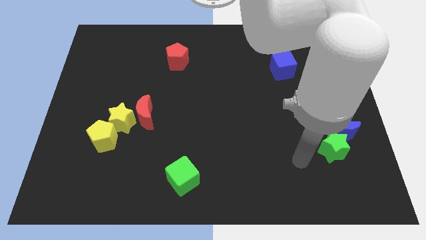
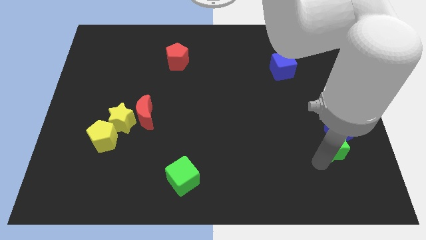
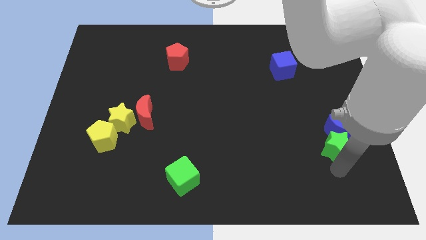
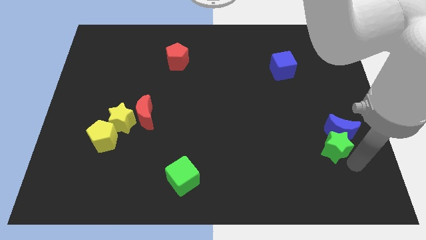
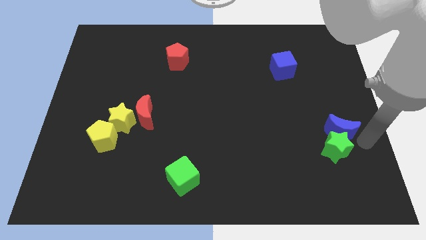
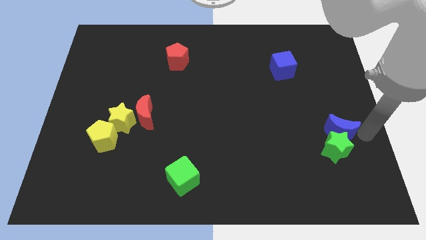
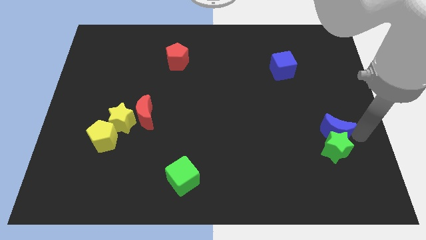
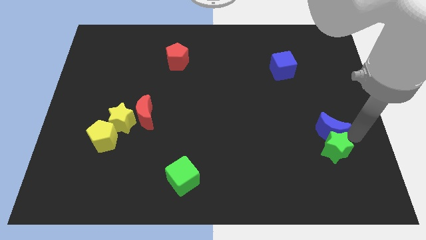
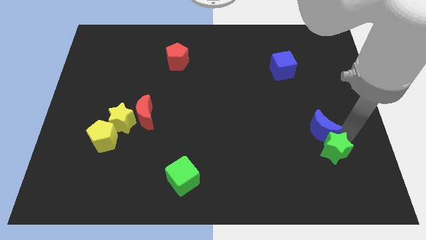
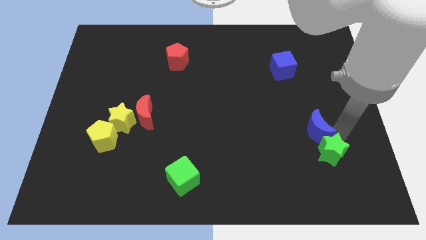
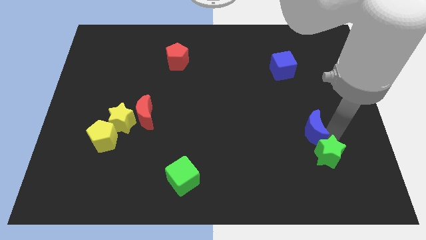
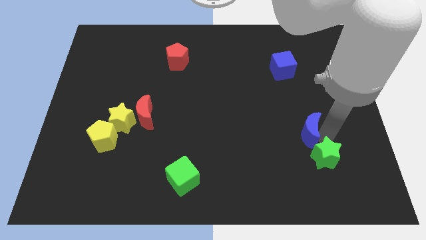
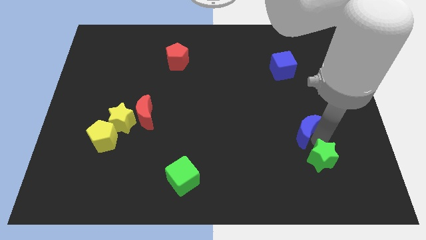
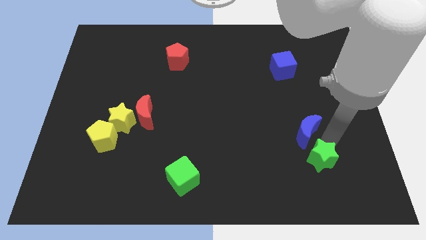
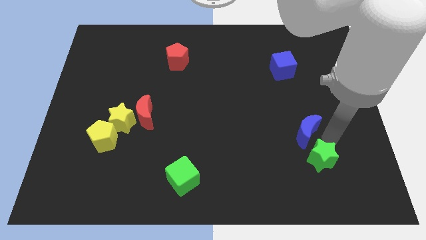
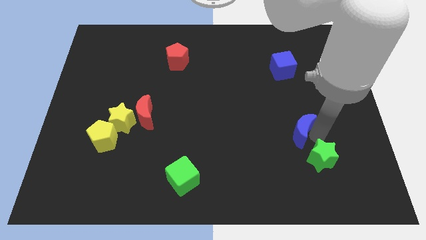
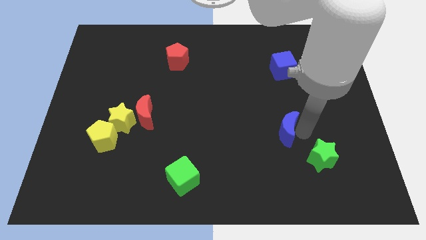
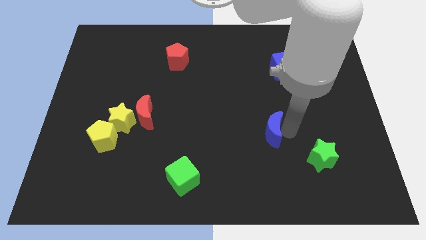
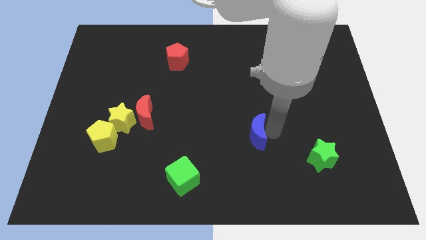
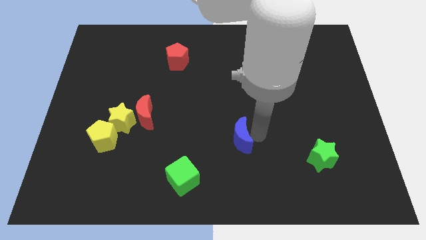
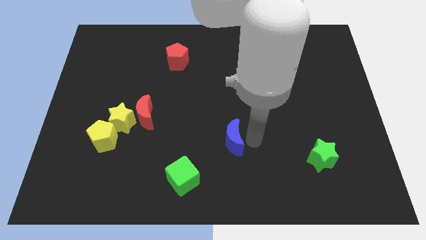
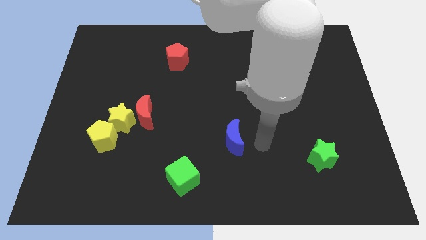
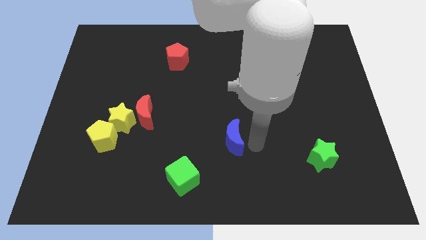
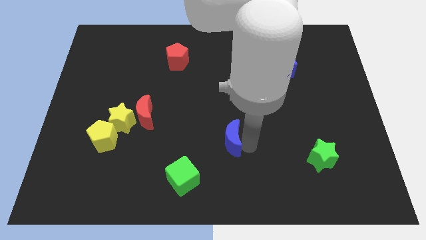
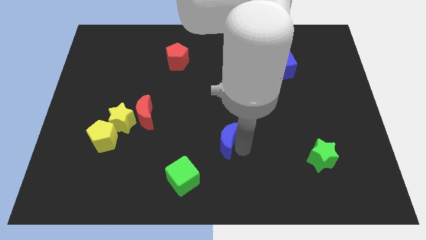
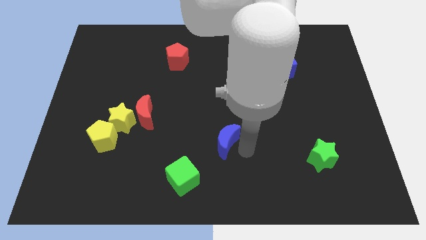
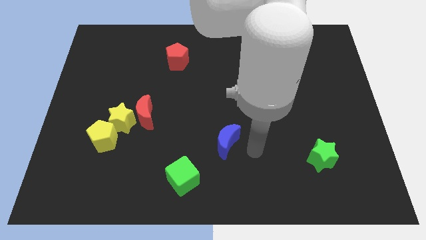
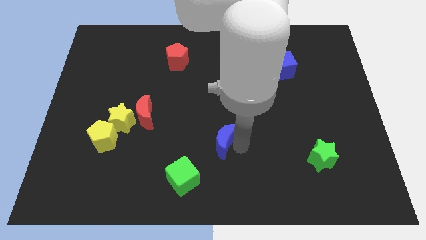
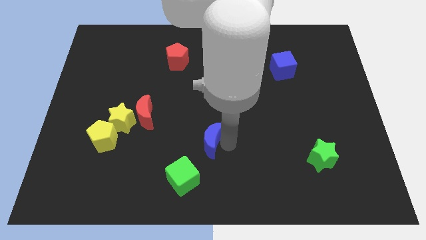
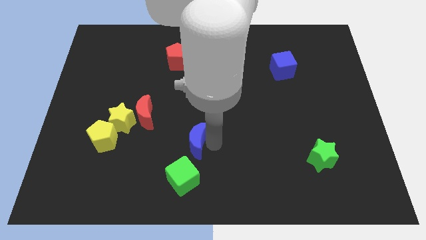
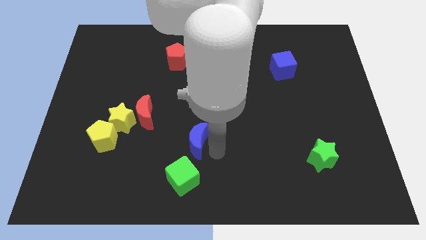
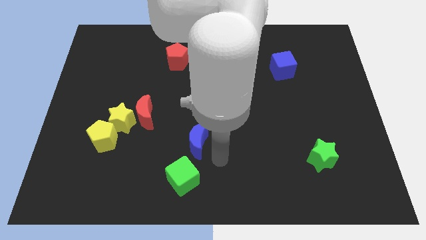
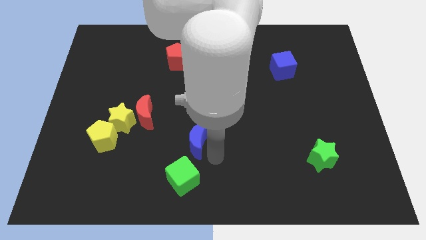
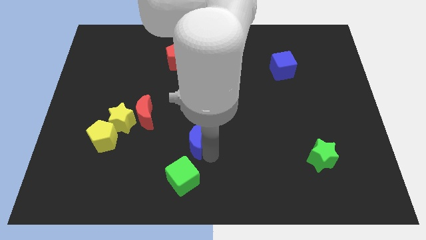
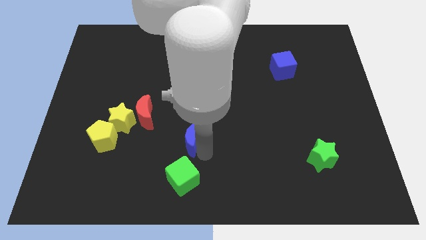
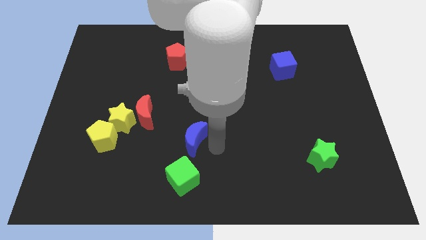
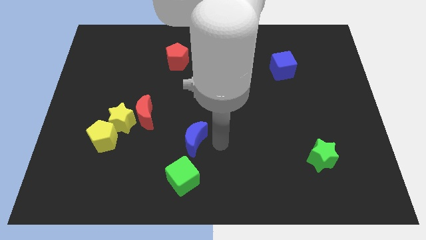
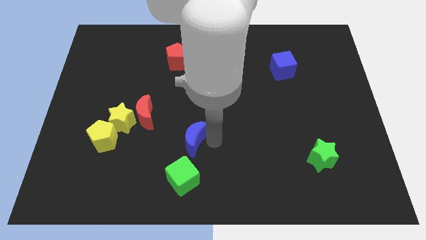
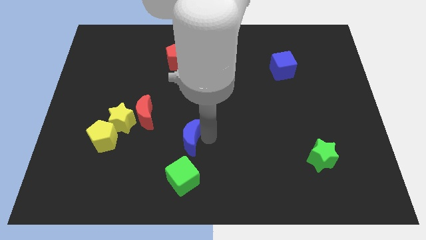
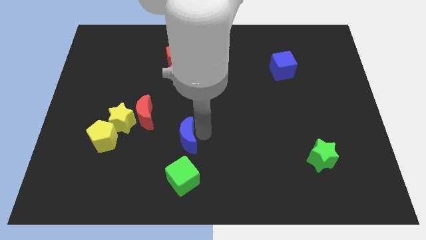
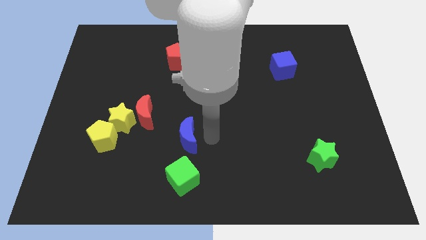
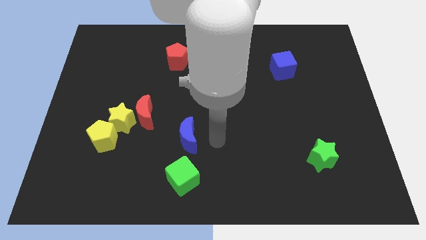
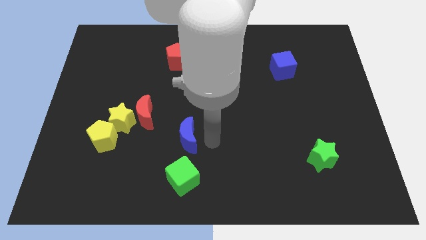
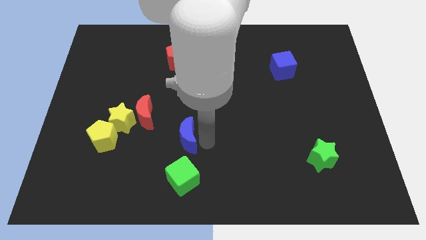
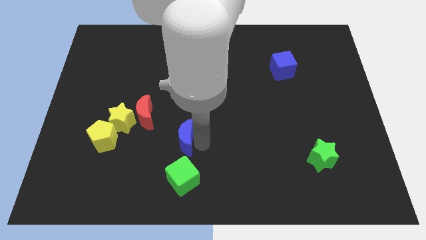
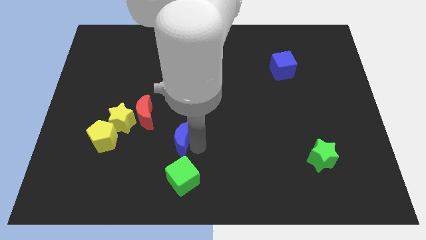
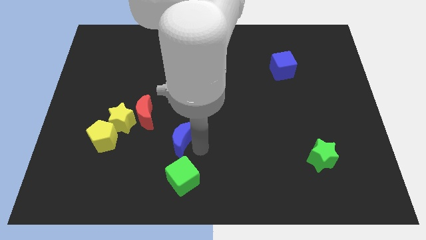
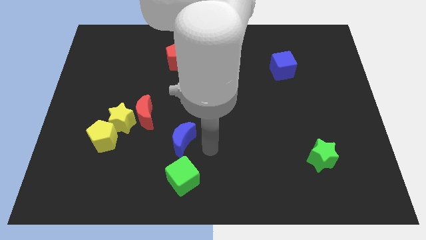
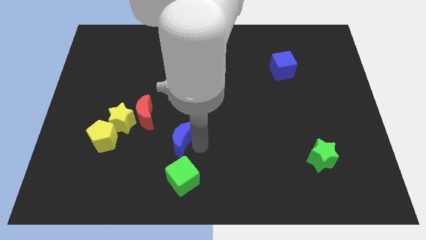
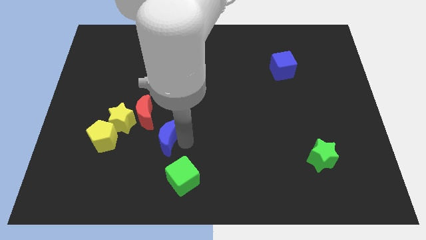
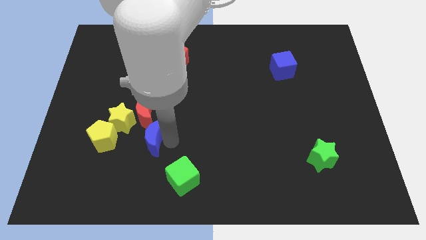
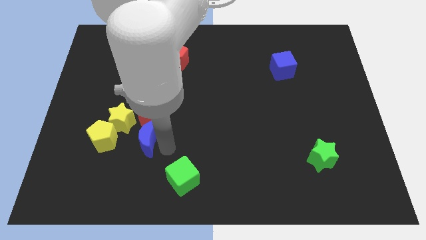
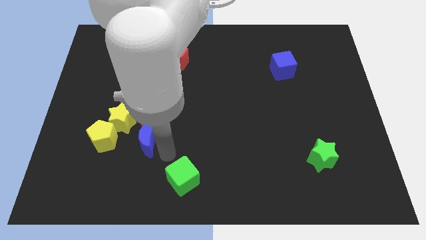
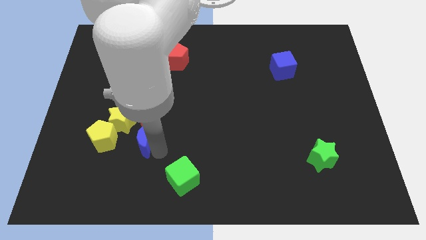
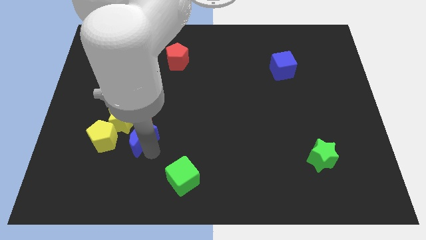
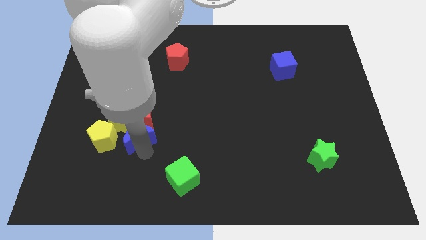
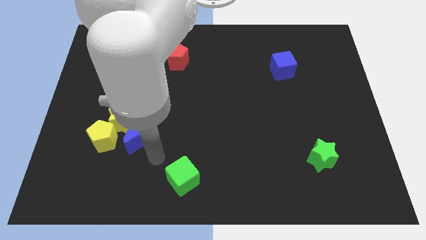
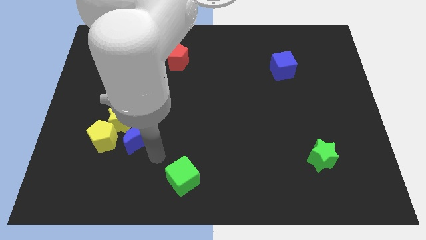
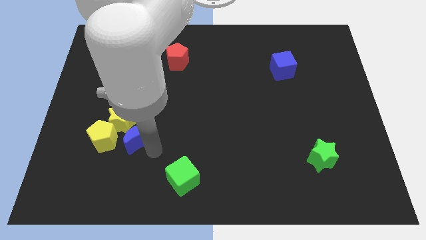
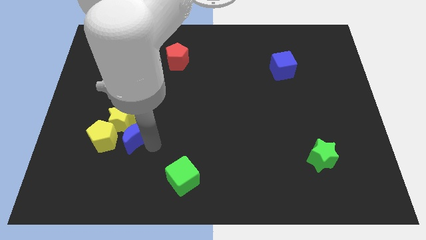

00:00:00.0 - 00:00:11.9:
move the blue moon to the yellow star

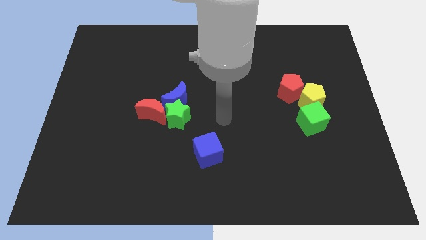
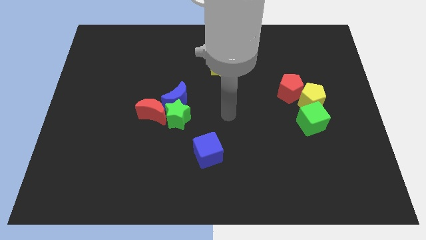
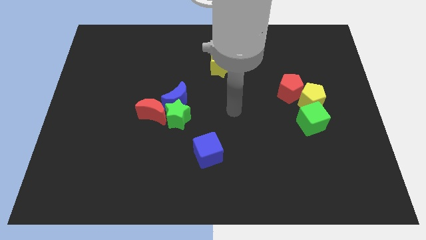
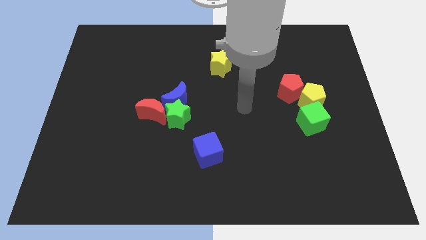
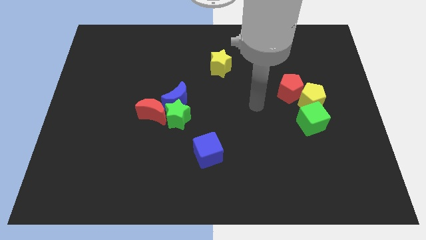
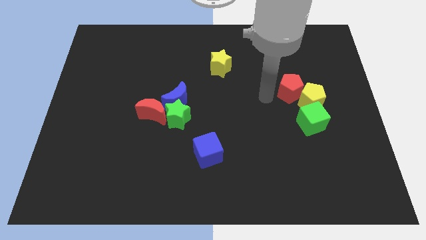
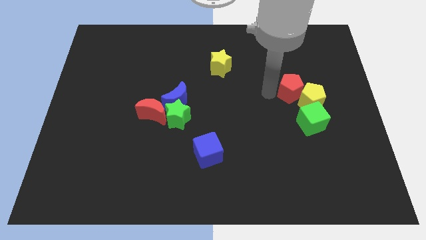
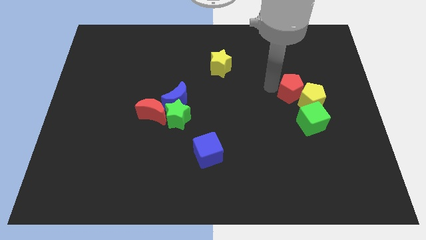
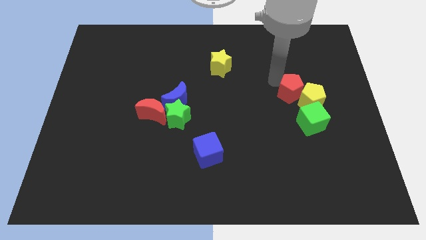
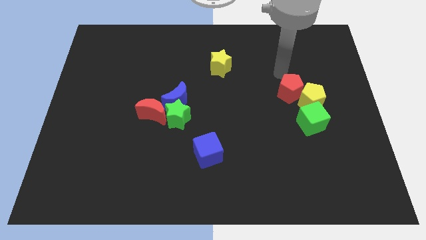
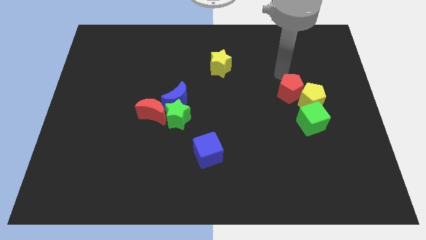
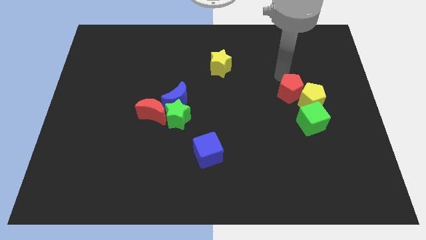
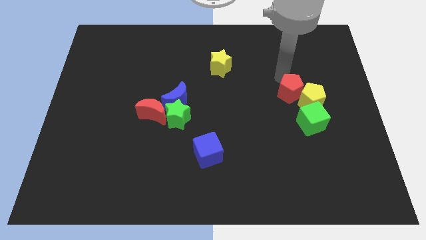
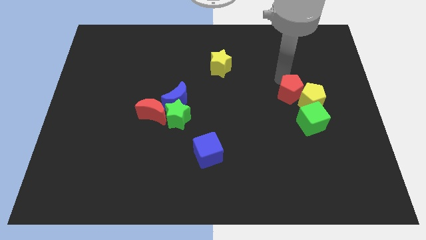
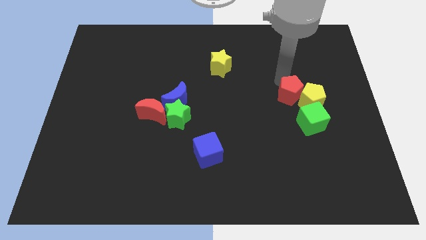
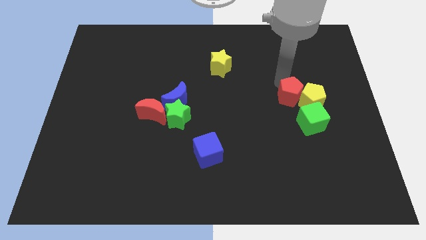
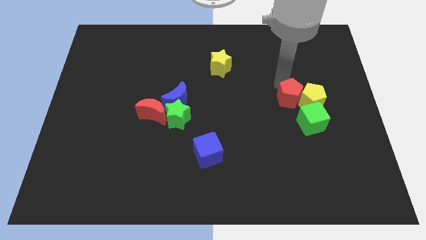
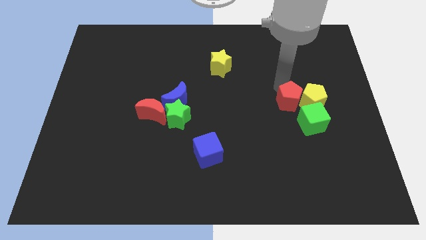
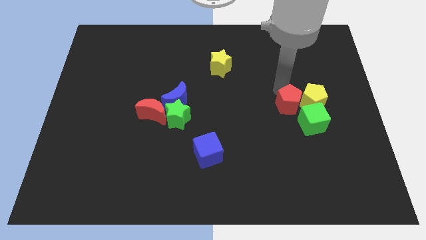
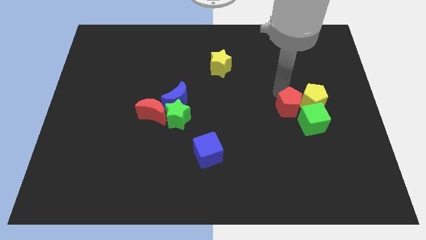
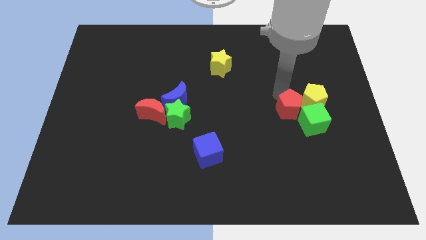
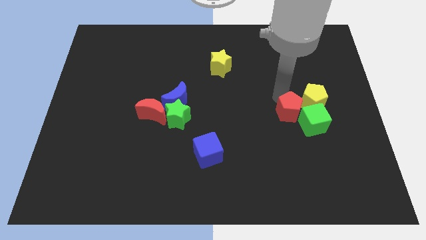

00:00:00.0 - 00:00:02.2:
move the red pentagon close to the green cube

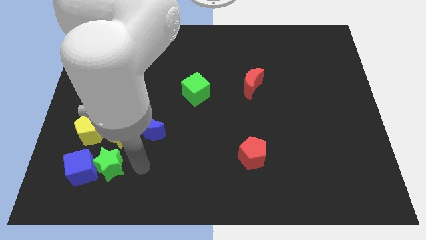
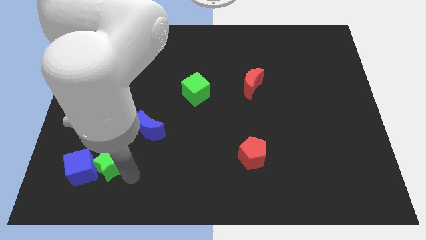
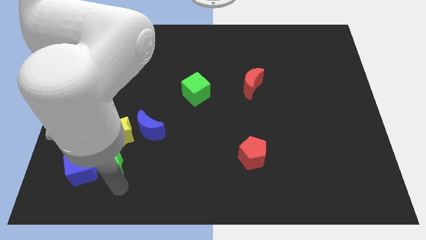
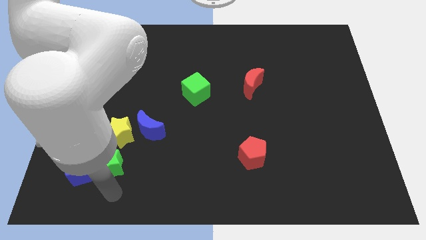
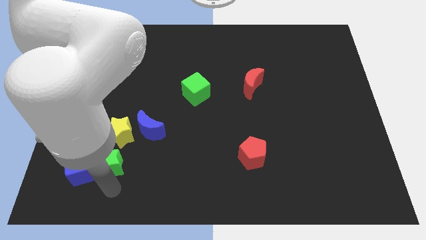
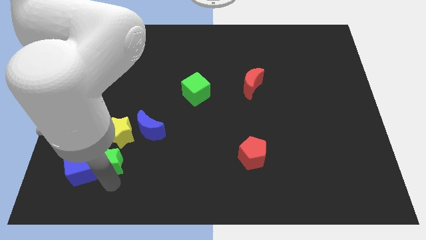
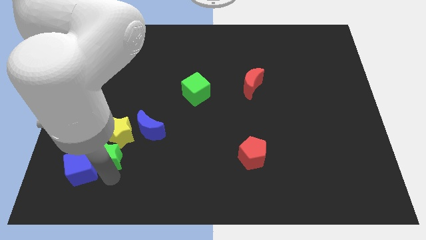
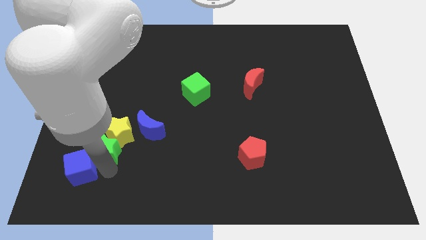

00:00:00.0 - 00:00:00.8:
put the green star to the yellow star
